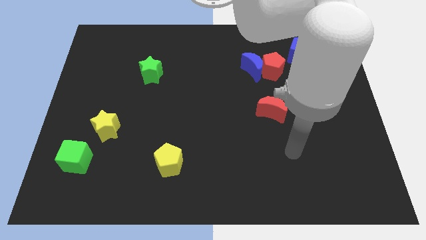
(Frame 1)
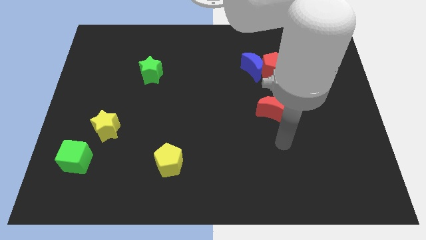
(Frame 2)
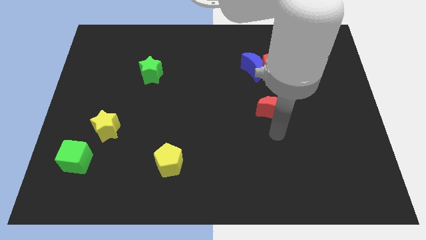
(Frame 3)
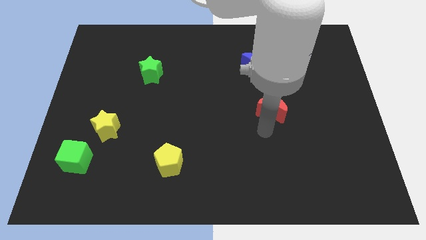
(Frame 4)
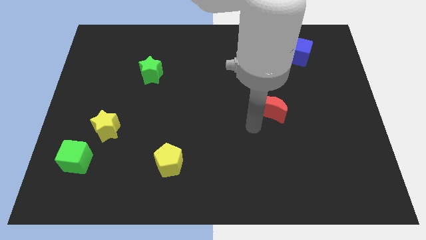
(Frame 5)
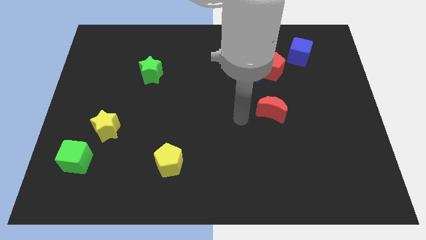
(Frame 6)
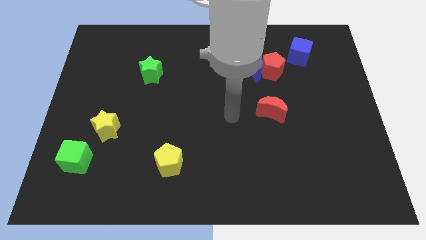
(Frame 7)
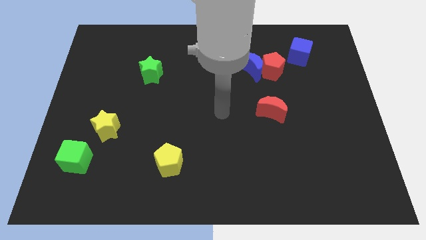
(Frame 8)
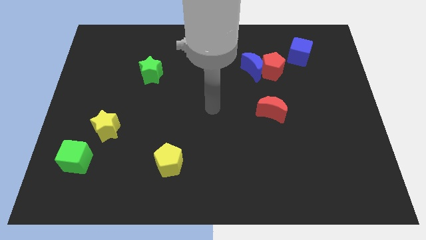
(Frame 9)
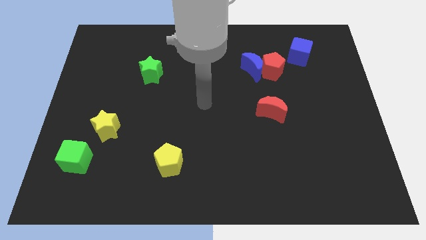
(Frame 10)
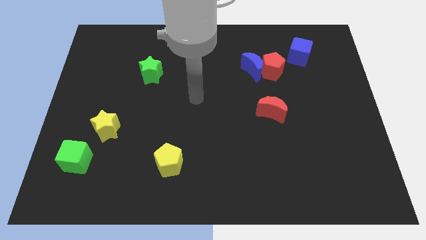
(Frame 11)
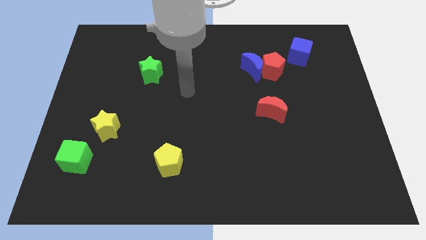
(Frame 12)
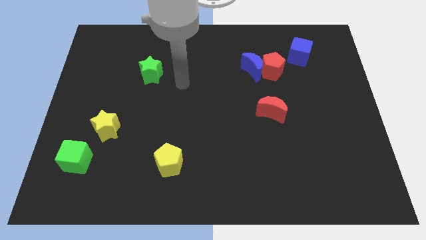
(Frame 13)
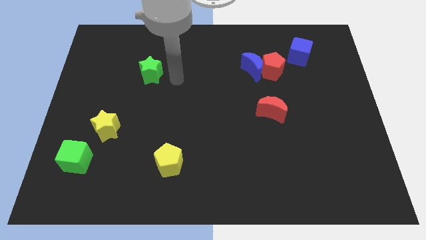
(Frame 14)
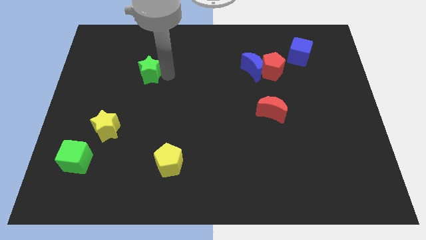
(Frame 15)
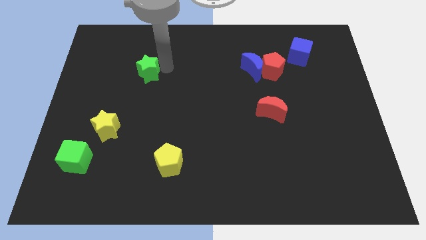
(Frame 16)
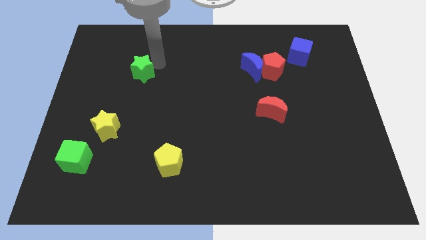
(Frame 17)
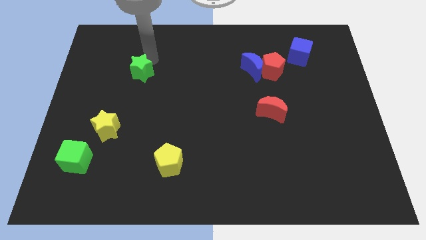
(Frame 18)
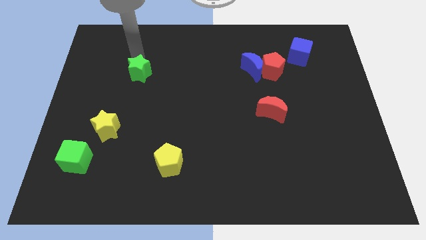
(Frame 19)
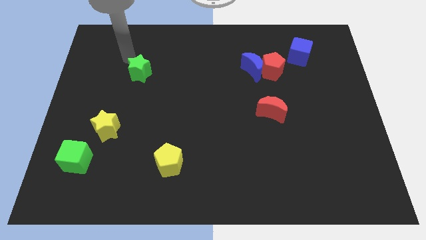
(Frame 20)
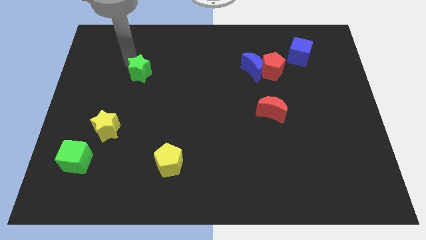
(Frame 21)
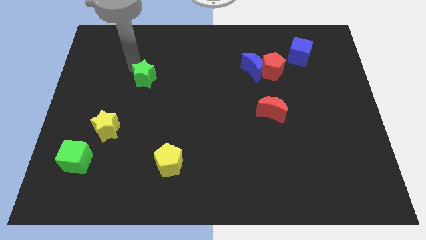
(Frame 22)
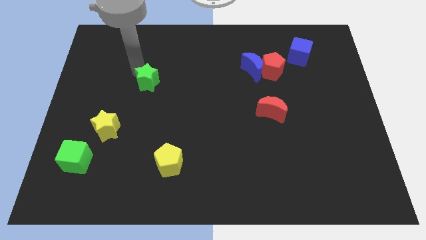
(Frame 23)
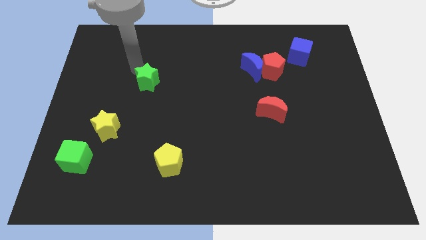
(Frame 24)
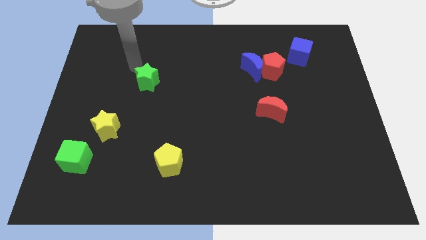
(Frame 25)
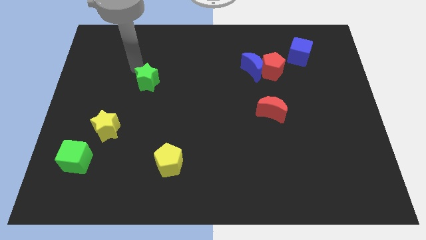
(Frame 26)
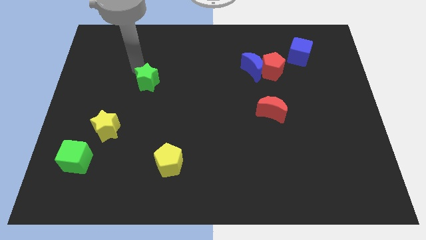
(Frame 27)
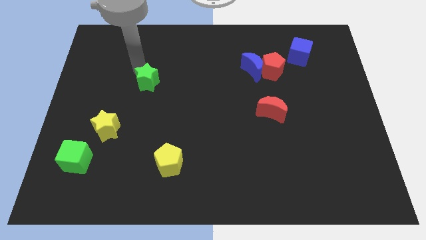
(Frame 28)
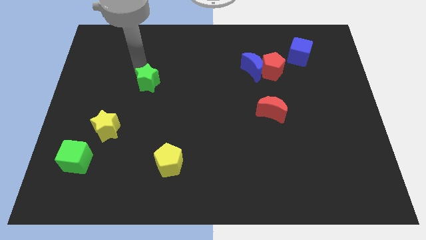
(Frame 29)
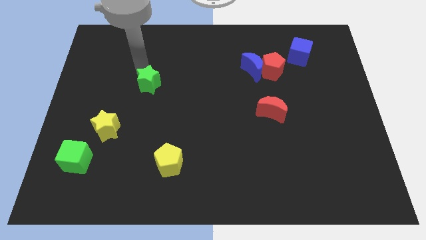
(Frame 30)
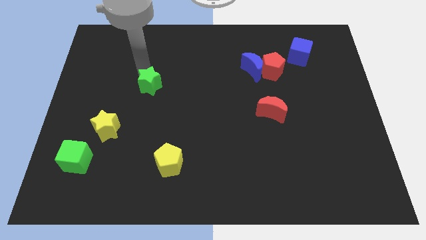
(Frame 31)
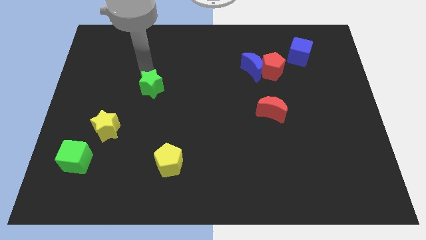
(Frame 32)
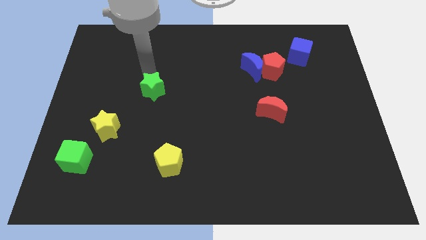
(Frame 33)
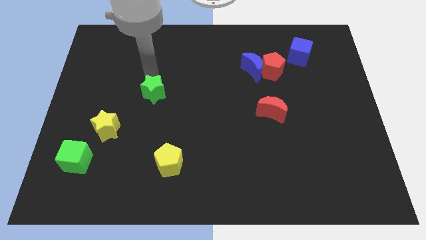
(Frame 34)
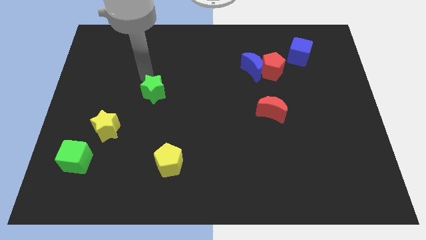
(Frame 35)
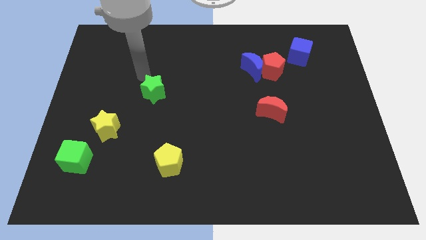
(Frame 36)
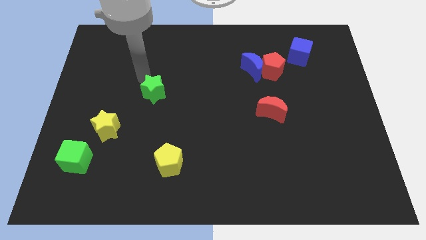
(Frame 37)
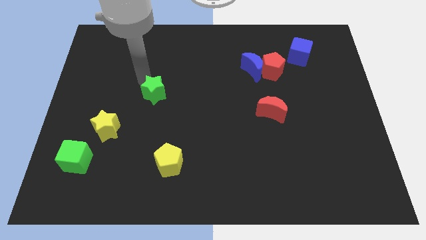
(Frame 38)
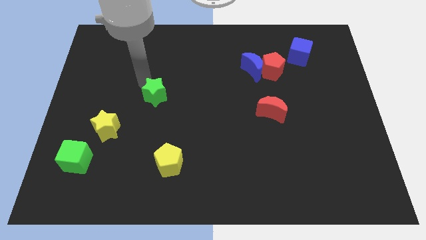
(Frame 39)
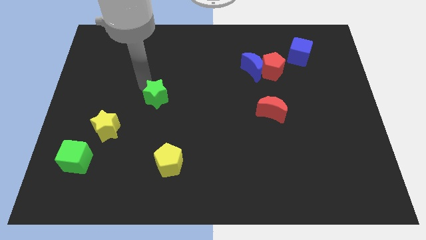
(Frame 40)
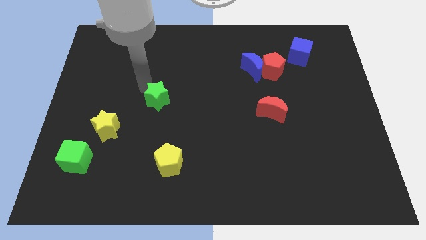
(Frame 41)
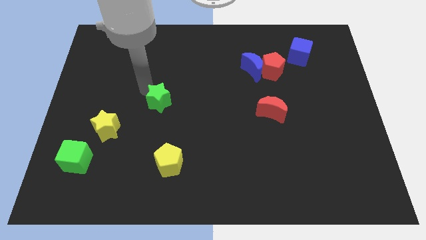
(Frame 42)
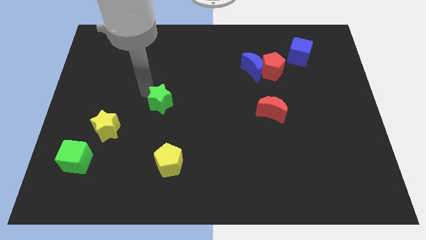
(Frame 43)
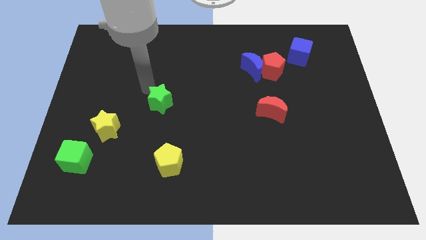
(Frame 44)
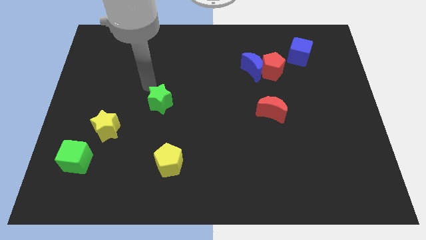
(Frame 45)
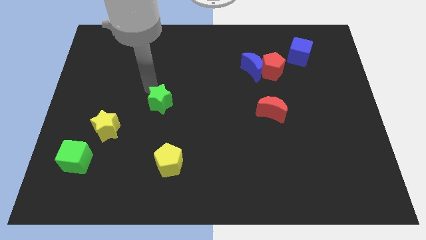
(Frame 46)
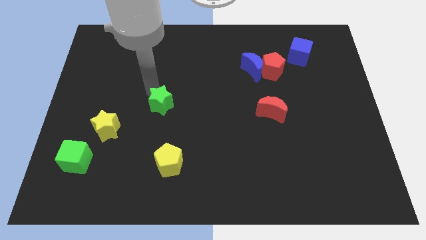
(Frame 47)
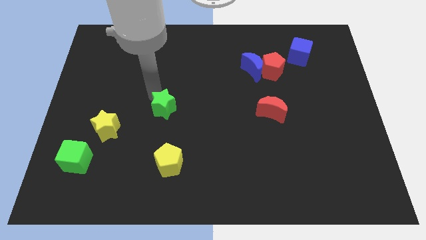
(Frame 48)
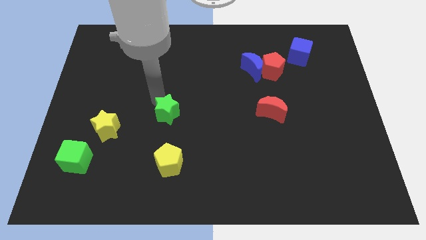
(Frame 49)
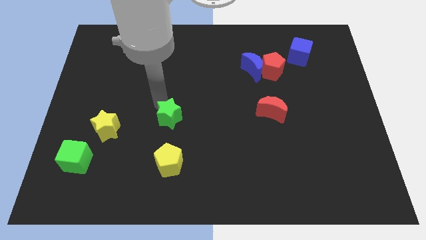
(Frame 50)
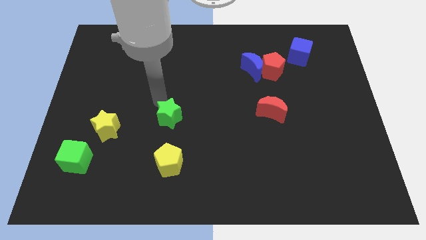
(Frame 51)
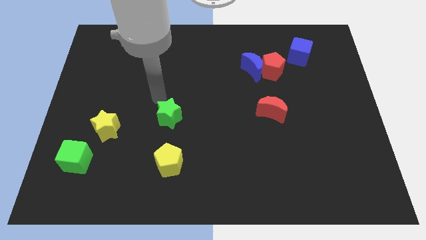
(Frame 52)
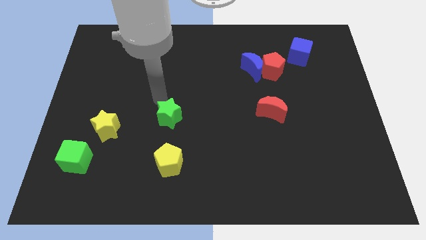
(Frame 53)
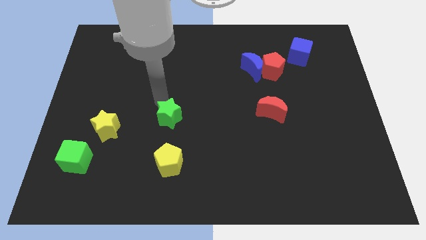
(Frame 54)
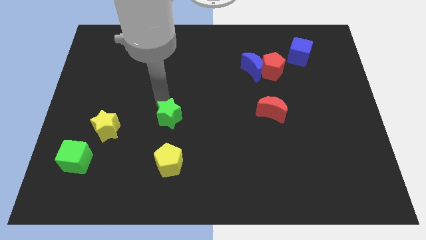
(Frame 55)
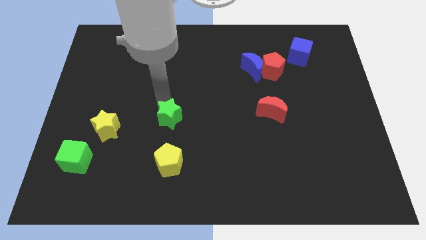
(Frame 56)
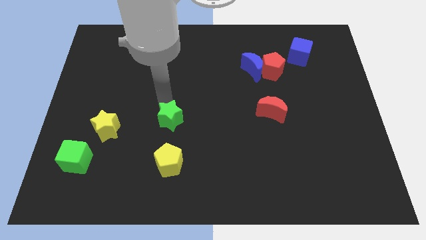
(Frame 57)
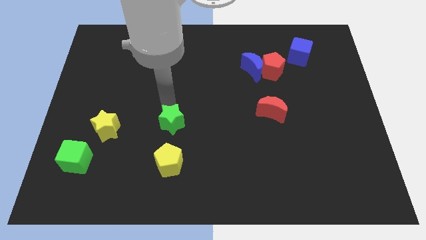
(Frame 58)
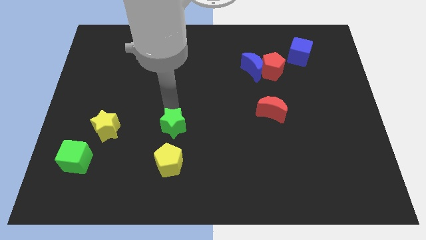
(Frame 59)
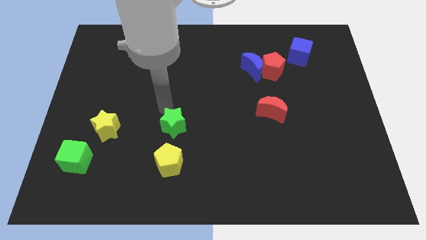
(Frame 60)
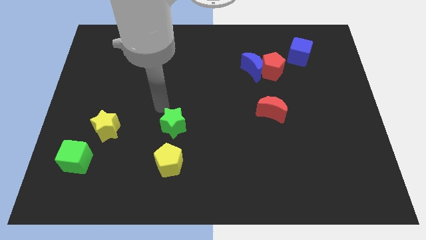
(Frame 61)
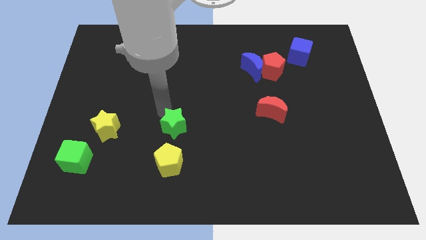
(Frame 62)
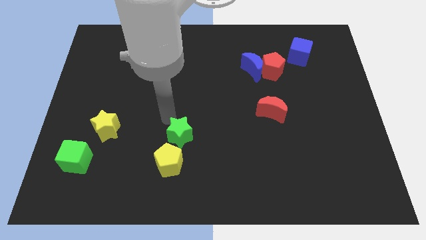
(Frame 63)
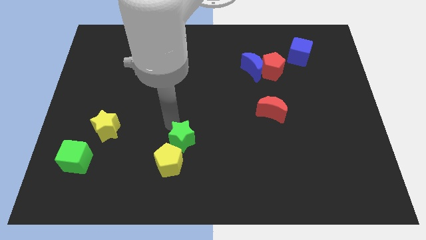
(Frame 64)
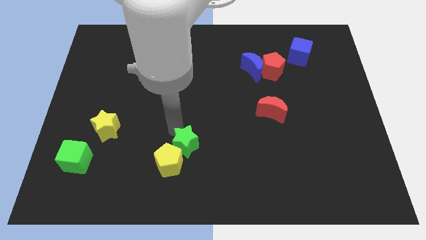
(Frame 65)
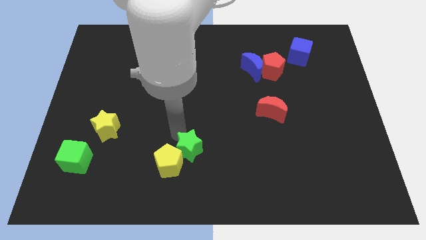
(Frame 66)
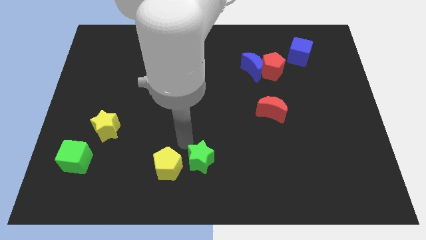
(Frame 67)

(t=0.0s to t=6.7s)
move the green star to the bottom side
